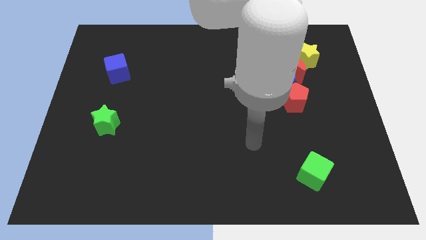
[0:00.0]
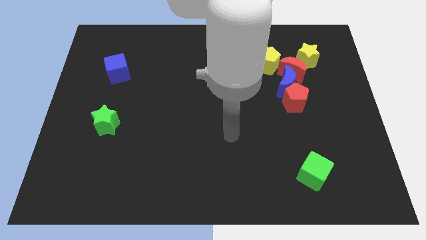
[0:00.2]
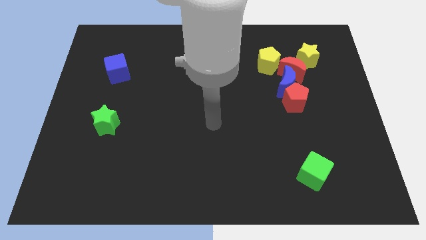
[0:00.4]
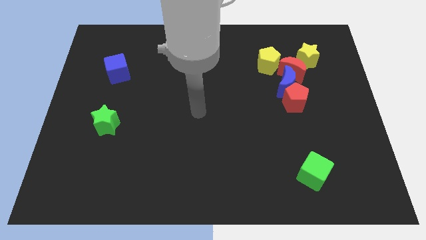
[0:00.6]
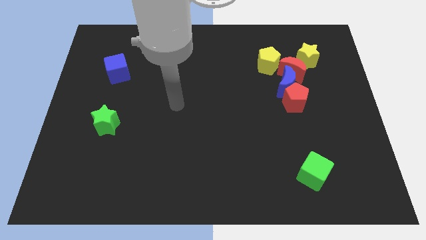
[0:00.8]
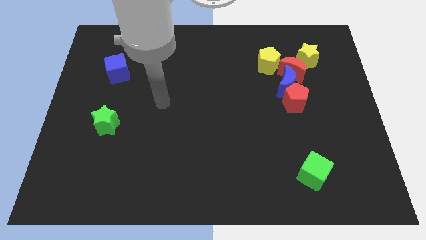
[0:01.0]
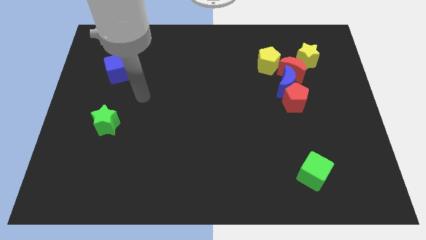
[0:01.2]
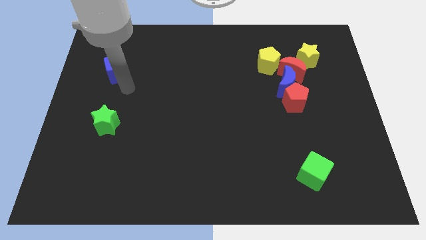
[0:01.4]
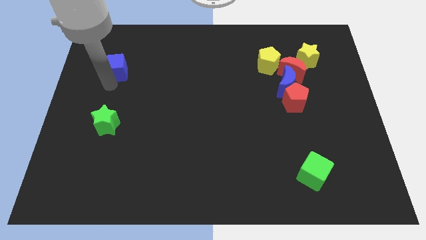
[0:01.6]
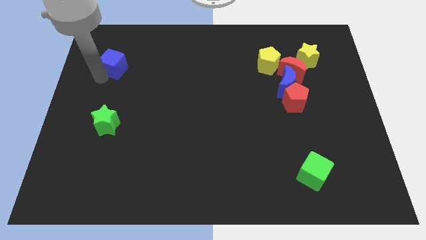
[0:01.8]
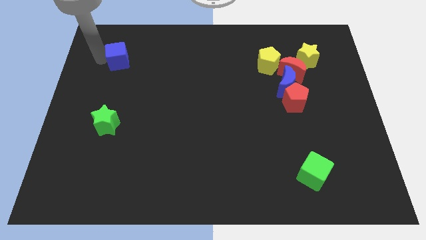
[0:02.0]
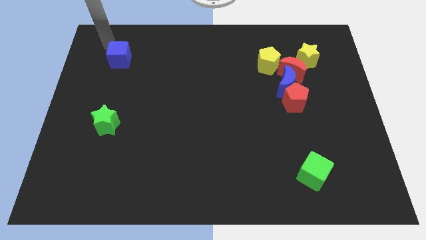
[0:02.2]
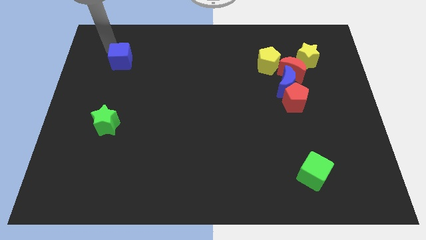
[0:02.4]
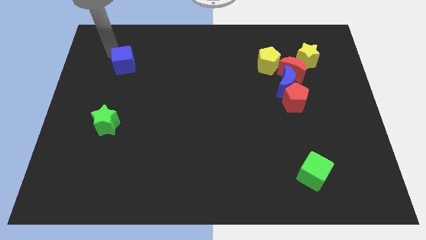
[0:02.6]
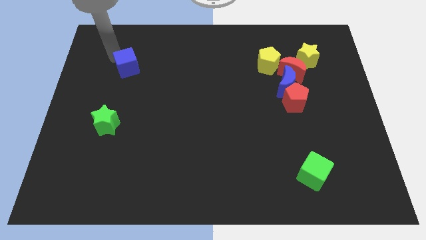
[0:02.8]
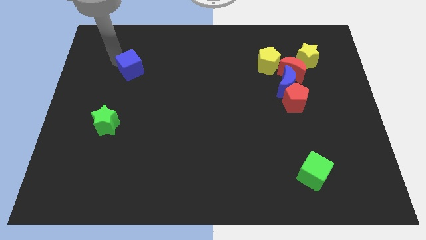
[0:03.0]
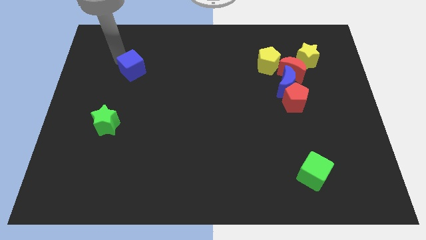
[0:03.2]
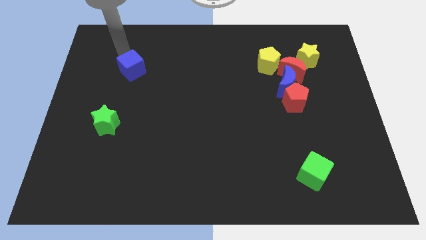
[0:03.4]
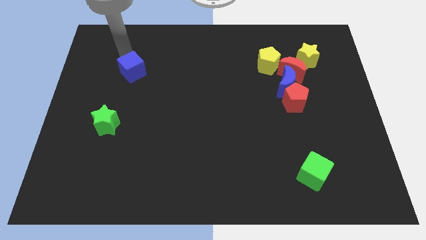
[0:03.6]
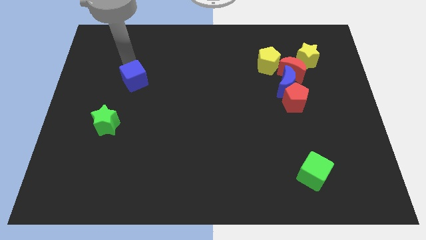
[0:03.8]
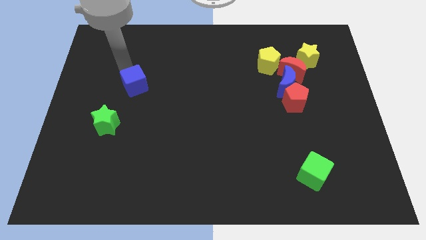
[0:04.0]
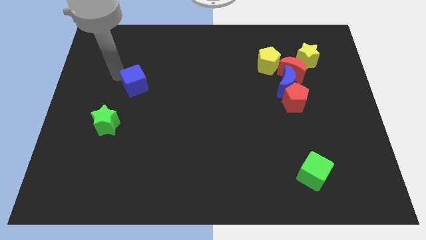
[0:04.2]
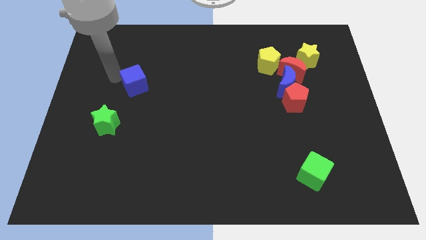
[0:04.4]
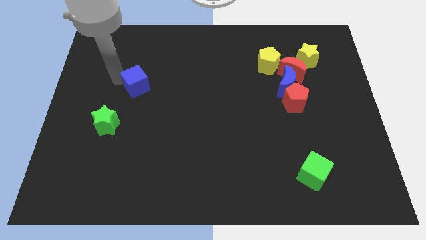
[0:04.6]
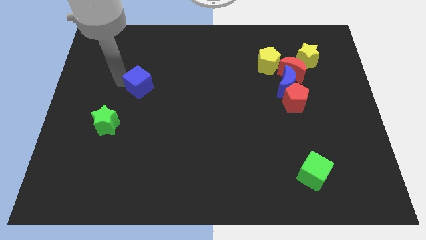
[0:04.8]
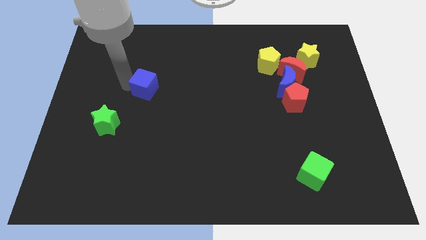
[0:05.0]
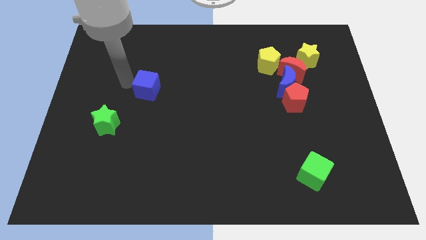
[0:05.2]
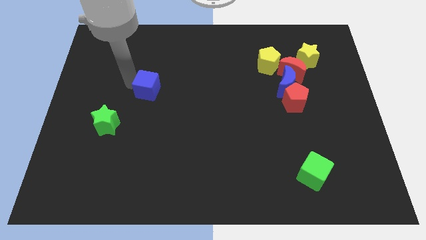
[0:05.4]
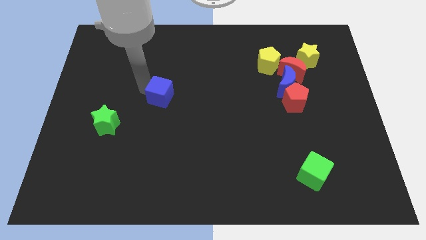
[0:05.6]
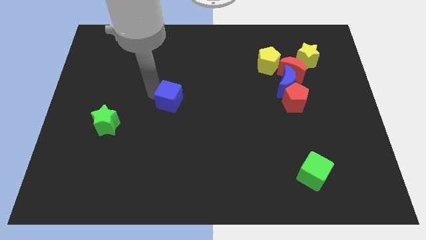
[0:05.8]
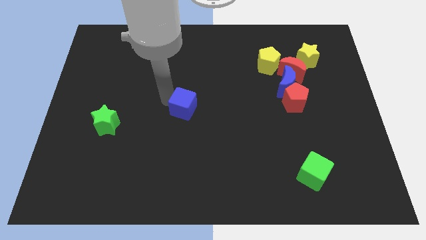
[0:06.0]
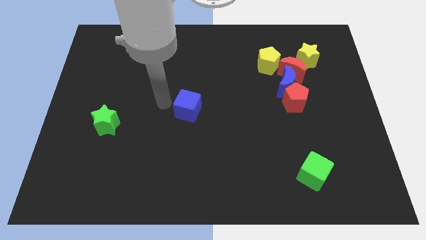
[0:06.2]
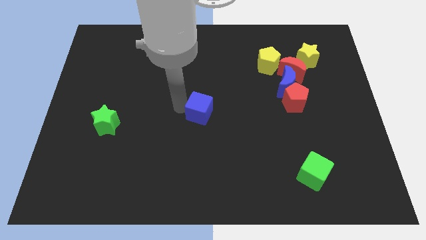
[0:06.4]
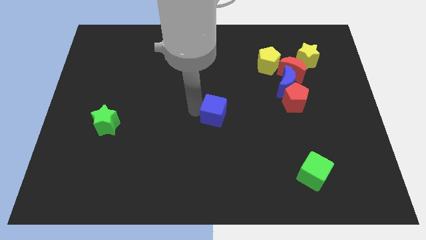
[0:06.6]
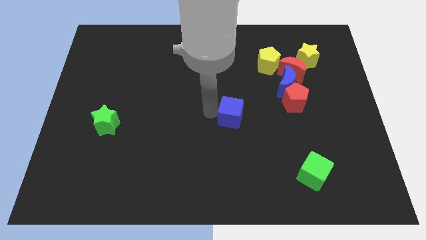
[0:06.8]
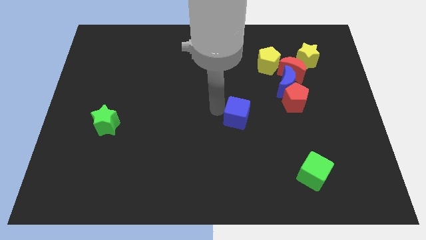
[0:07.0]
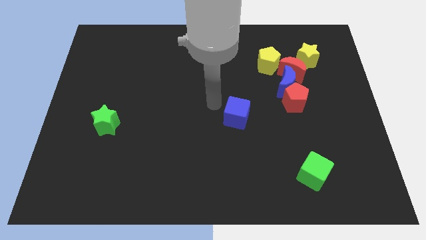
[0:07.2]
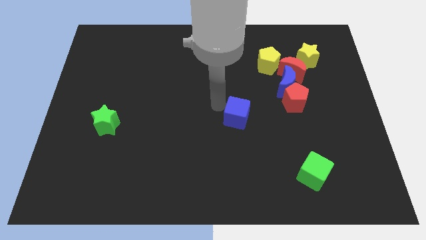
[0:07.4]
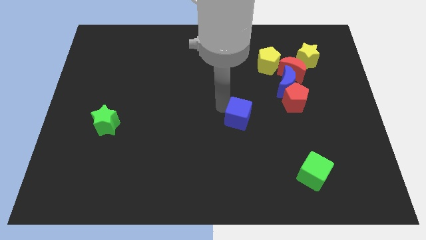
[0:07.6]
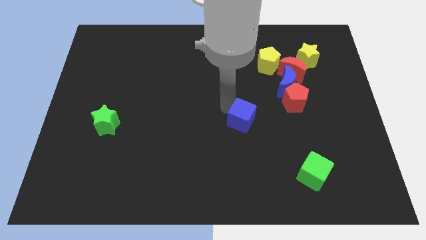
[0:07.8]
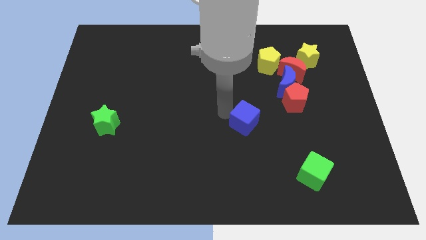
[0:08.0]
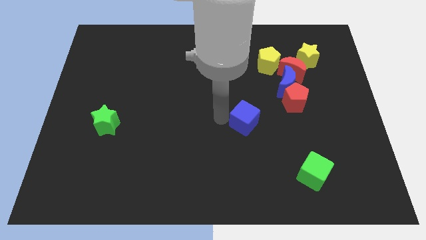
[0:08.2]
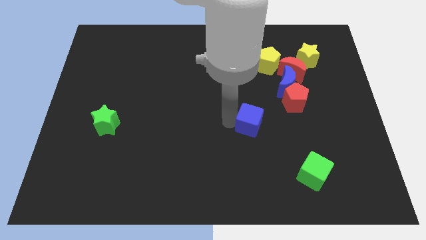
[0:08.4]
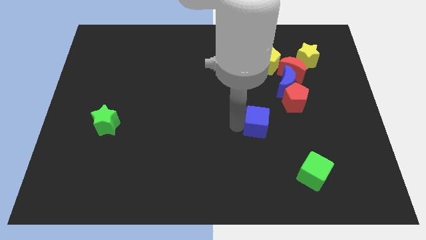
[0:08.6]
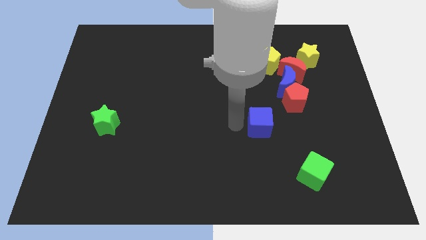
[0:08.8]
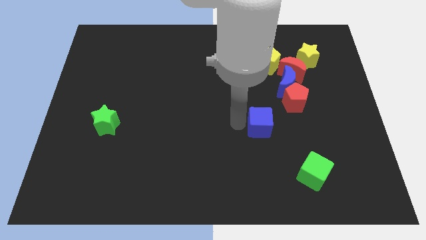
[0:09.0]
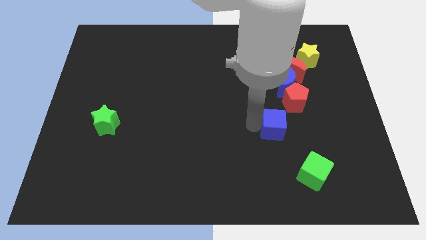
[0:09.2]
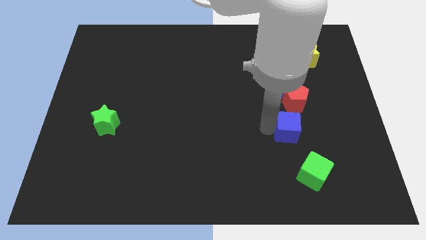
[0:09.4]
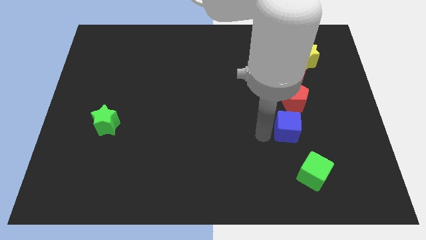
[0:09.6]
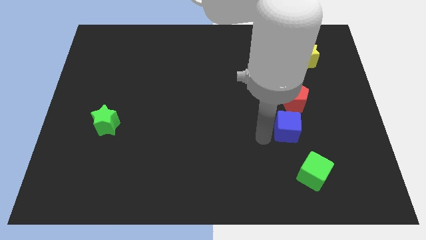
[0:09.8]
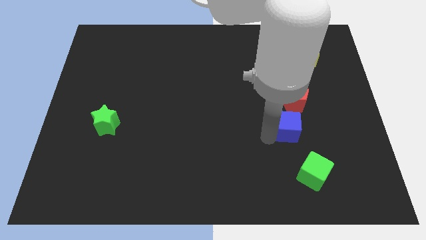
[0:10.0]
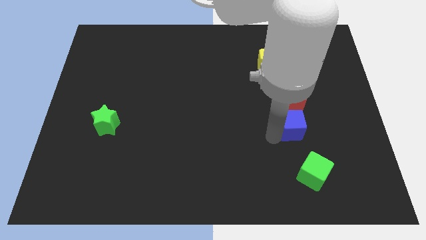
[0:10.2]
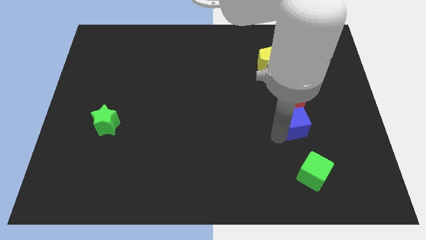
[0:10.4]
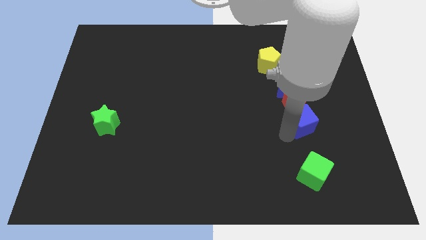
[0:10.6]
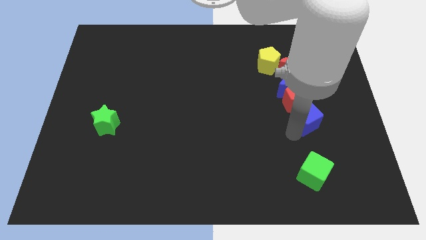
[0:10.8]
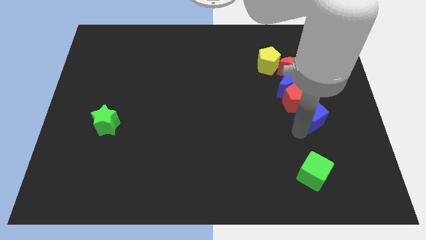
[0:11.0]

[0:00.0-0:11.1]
put the blue cube diagonally down and to the right of the blue moon

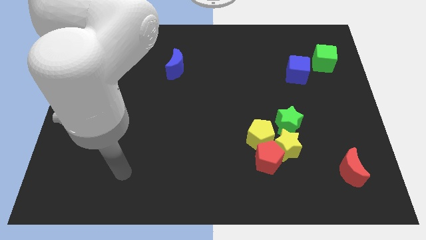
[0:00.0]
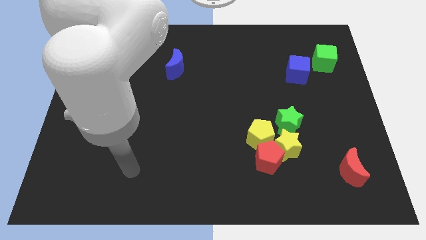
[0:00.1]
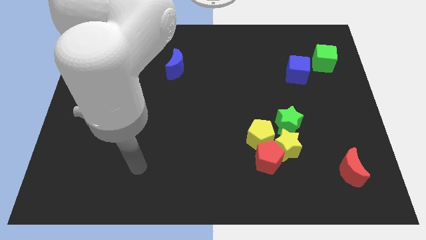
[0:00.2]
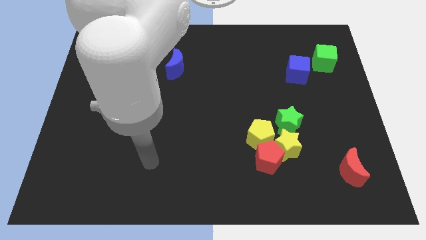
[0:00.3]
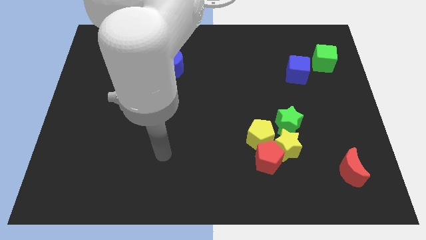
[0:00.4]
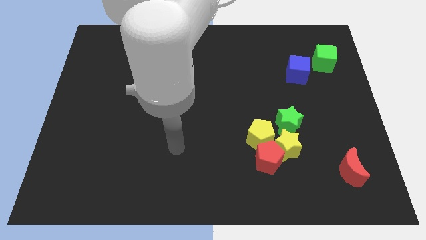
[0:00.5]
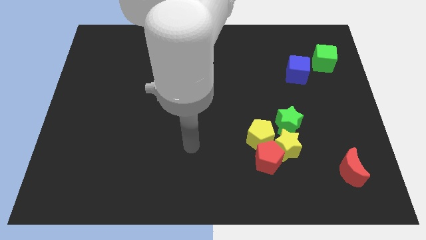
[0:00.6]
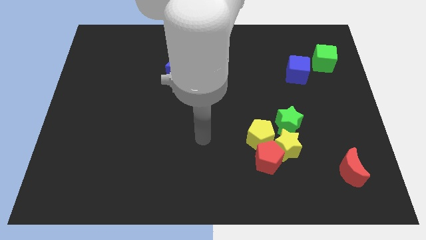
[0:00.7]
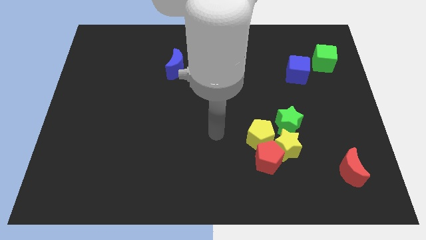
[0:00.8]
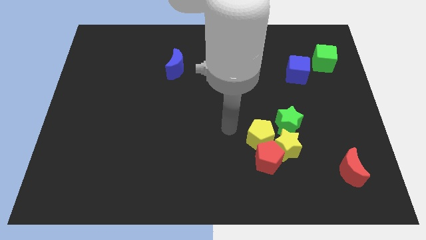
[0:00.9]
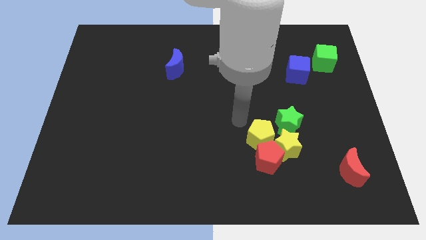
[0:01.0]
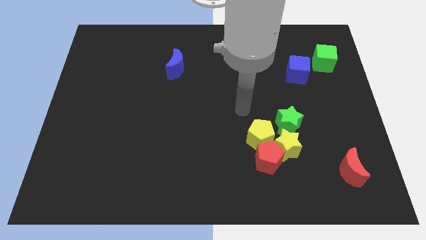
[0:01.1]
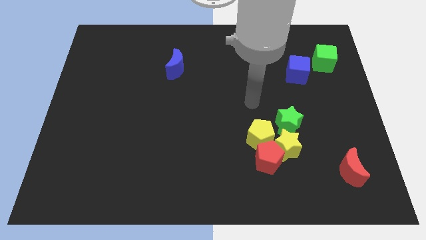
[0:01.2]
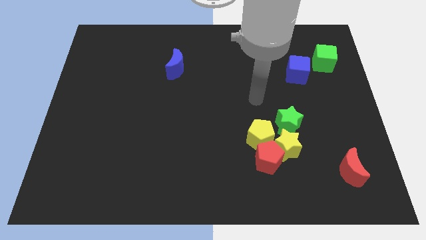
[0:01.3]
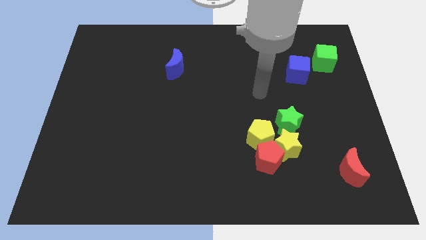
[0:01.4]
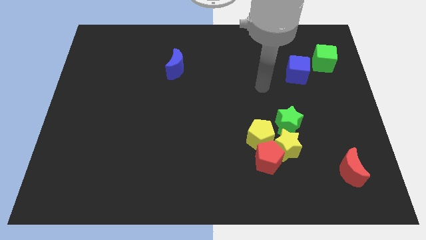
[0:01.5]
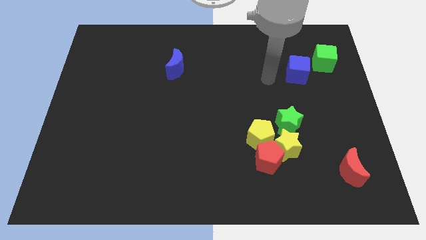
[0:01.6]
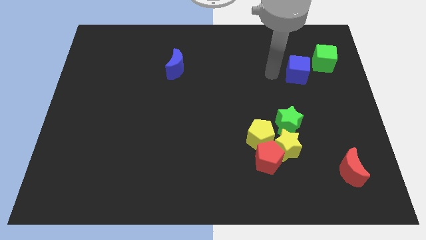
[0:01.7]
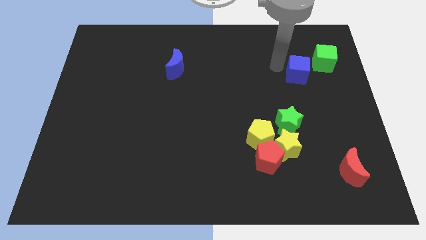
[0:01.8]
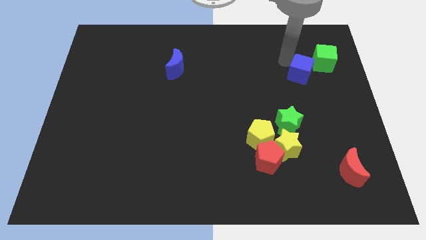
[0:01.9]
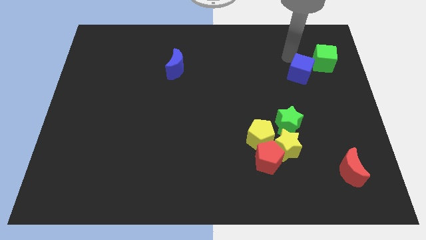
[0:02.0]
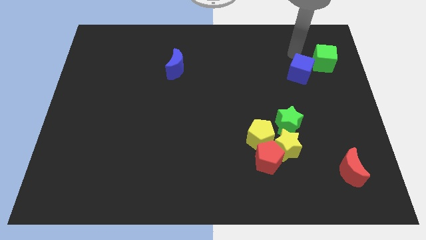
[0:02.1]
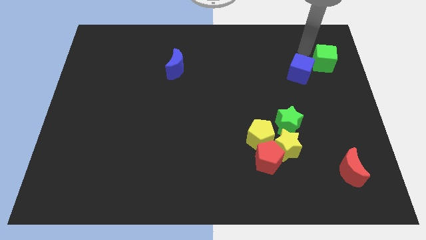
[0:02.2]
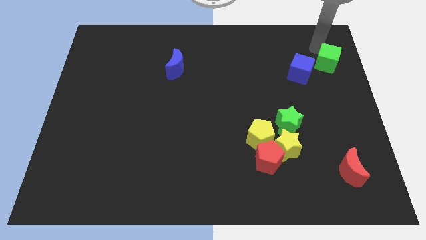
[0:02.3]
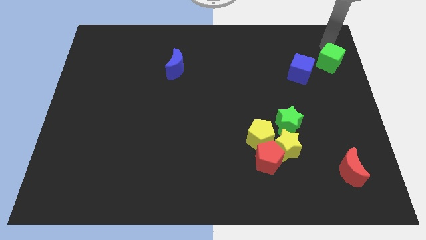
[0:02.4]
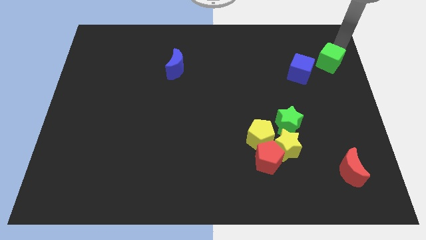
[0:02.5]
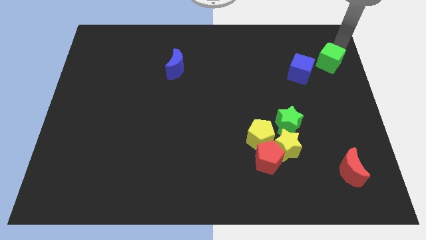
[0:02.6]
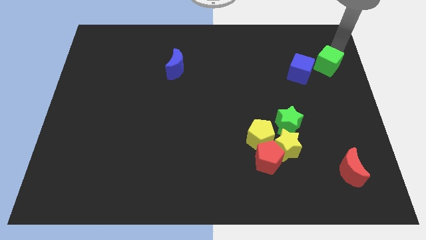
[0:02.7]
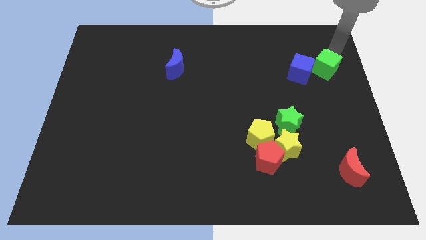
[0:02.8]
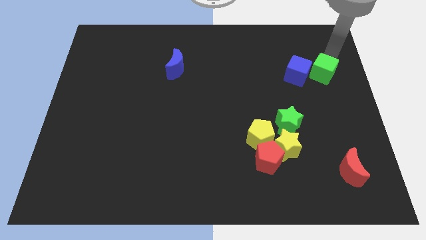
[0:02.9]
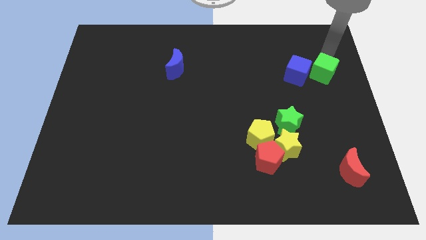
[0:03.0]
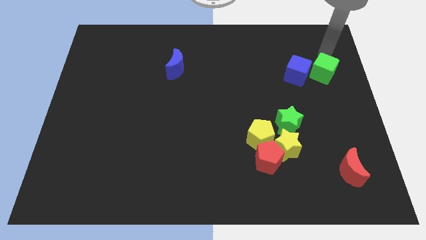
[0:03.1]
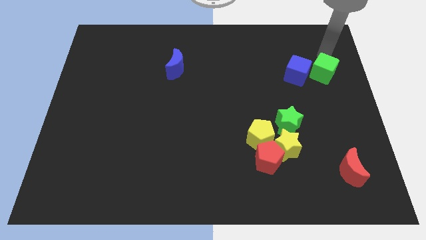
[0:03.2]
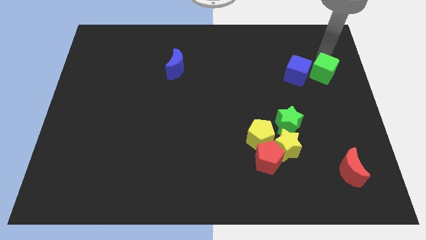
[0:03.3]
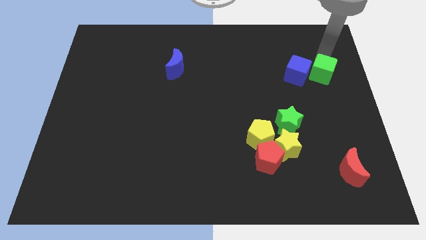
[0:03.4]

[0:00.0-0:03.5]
put the green cube diagonally down and to the right of the blue cube
